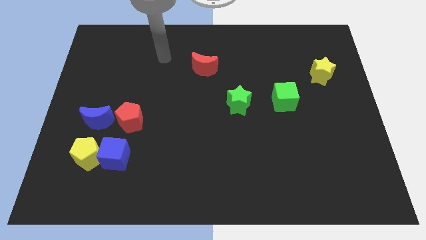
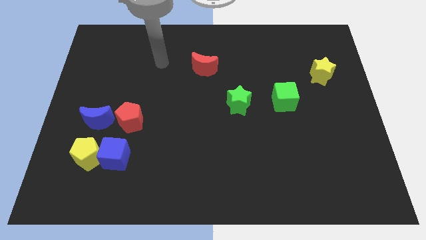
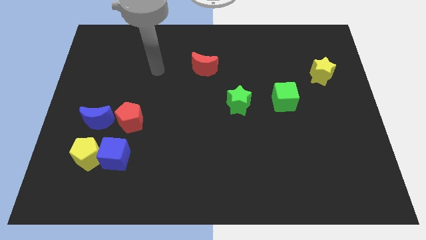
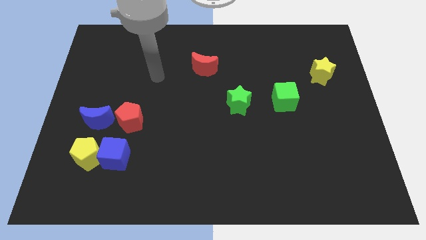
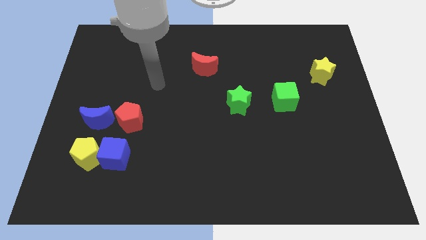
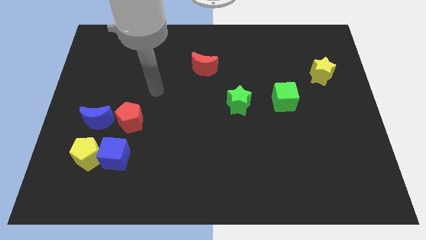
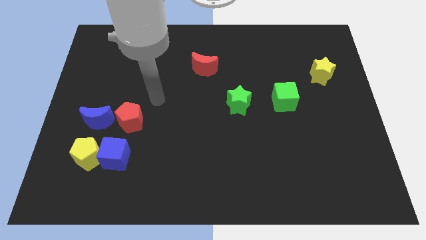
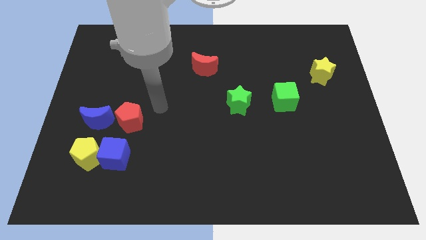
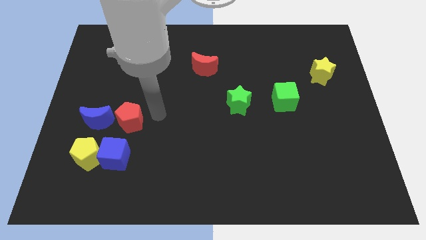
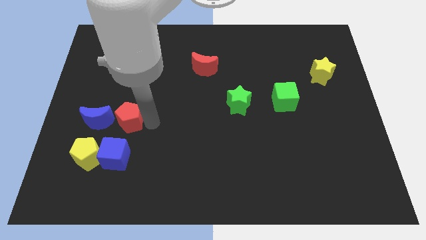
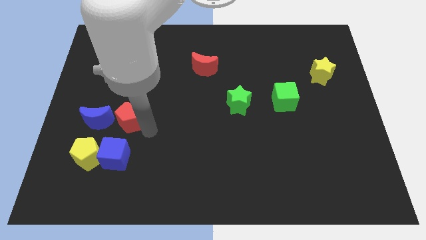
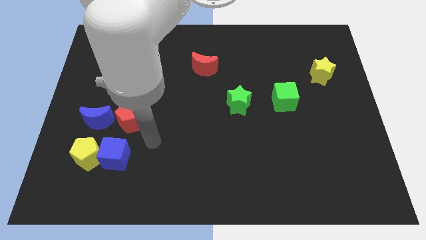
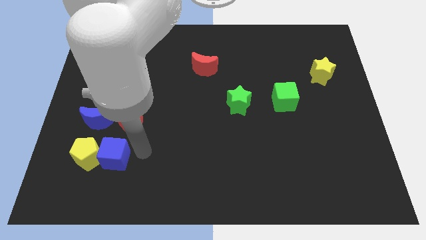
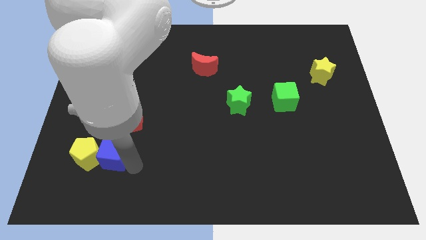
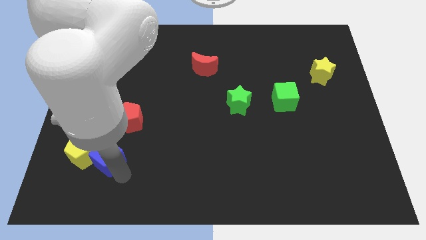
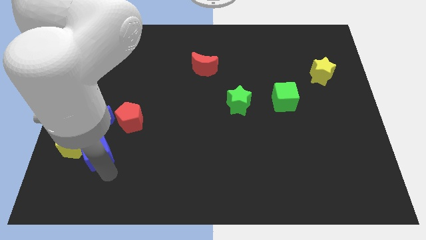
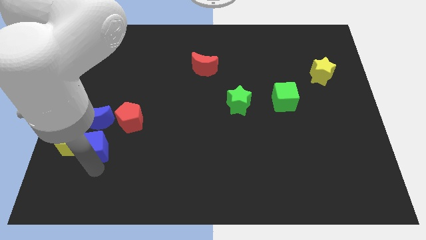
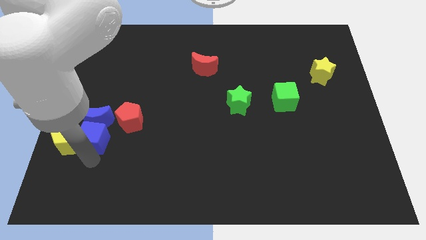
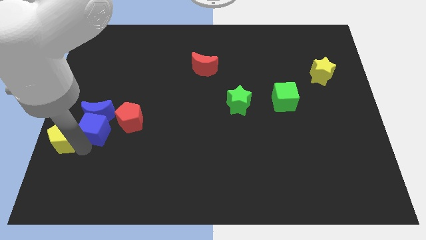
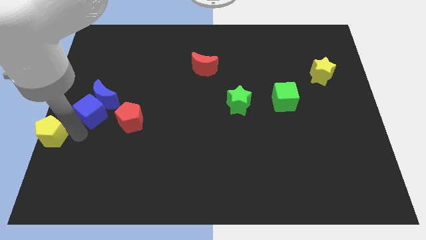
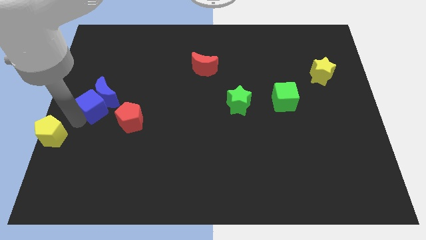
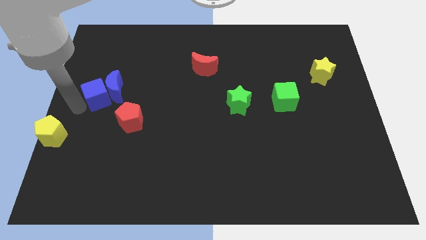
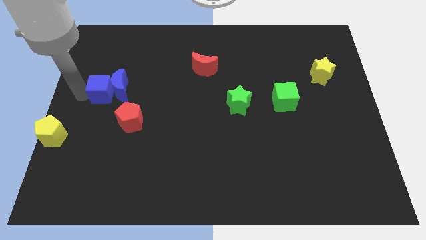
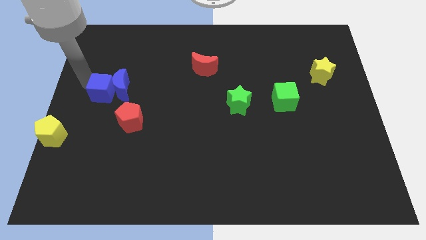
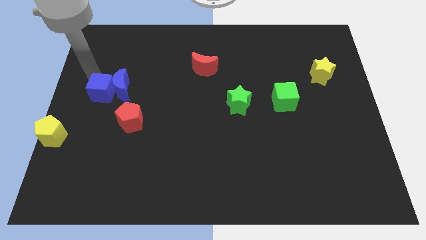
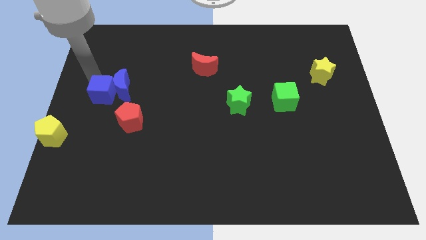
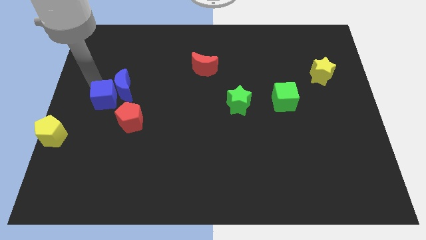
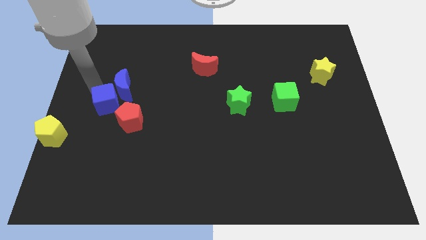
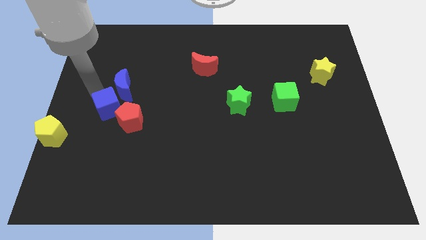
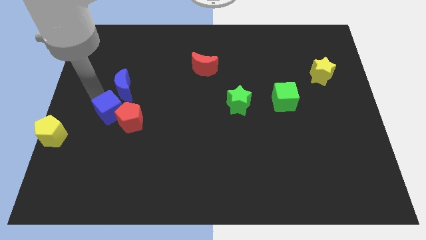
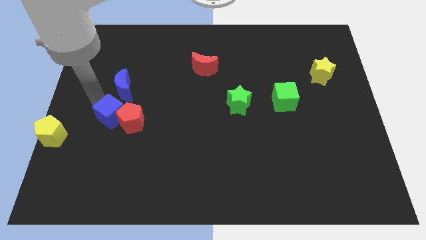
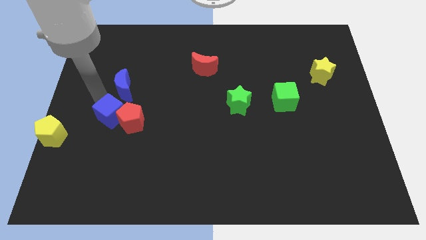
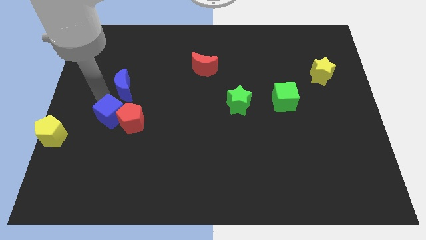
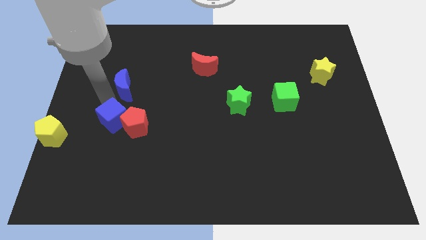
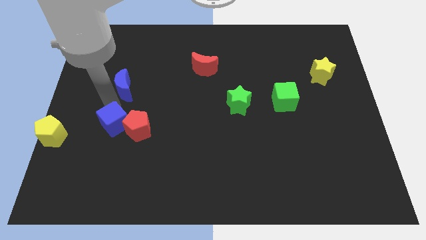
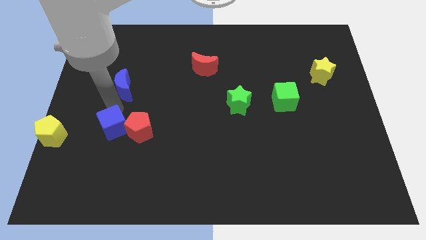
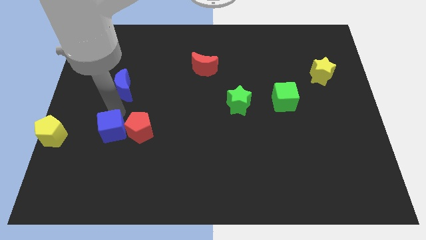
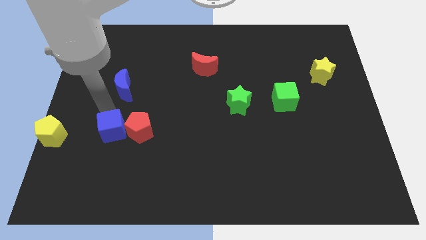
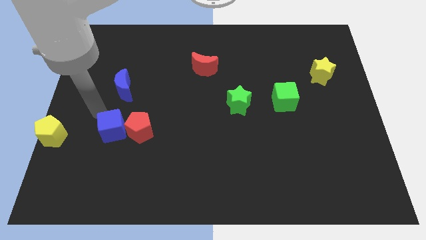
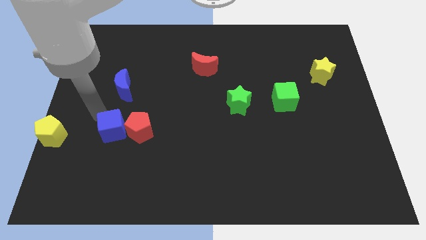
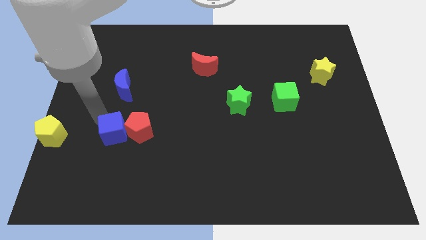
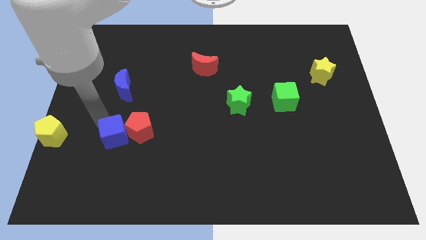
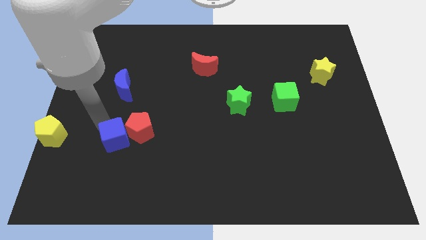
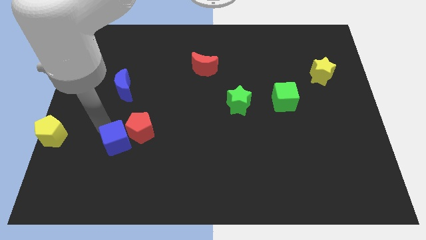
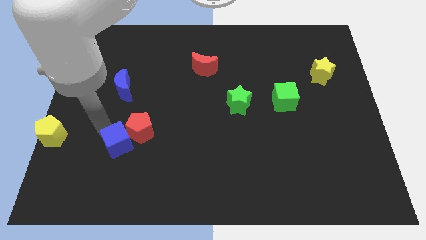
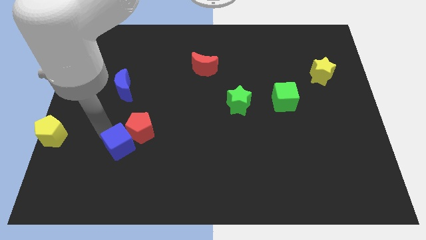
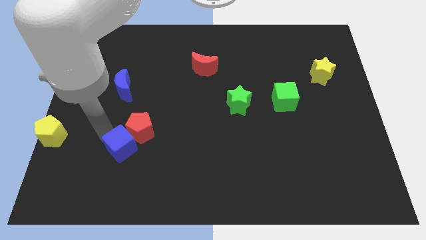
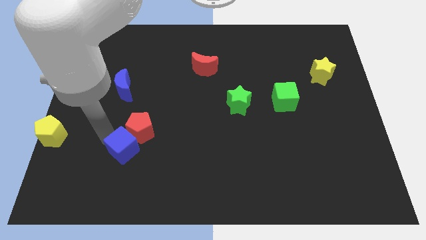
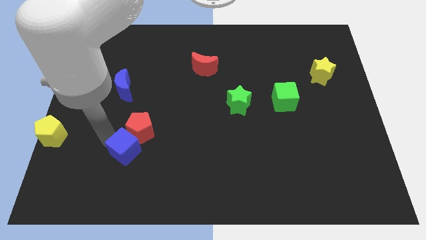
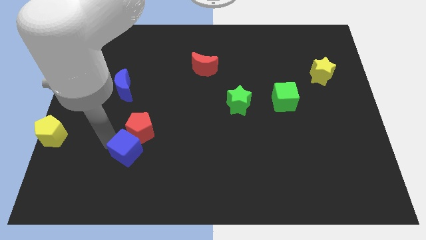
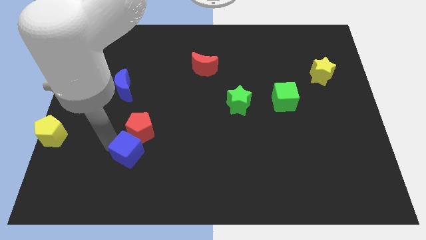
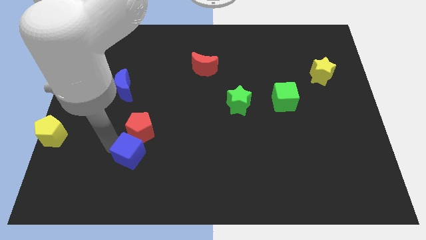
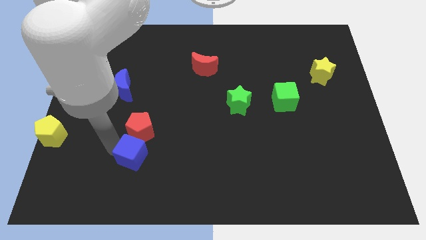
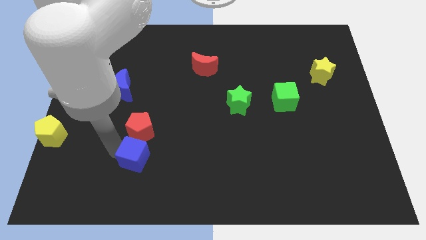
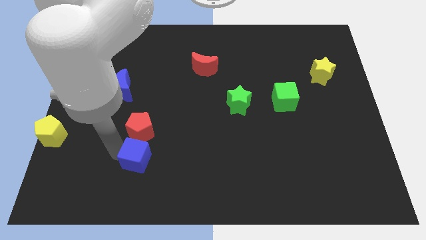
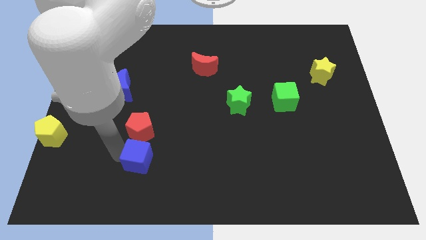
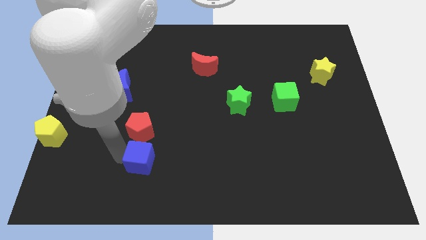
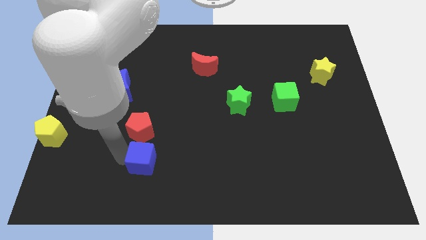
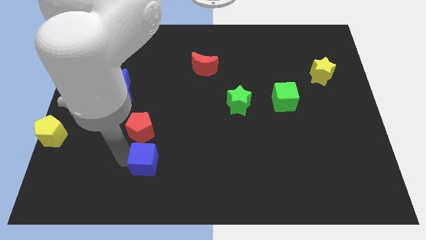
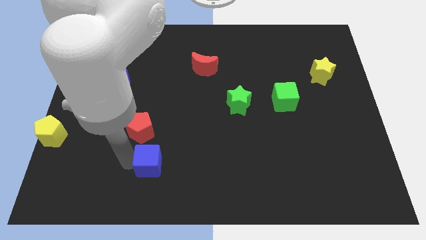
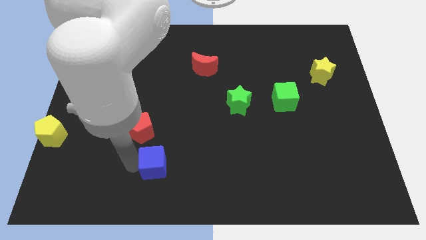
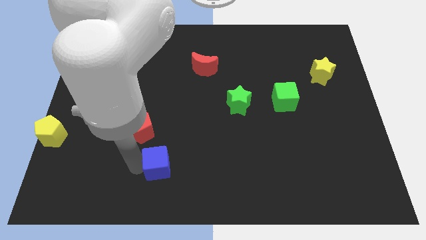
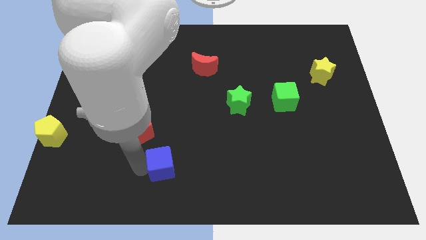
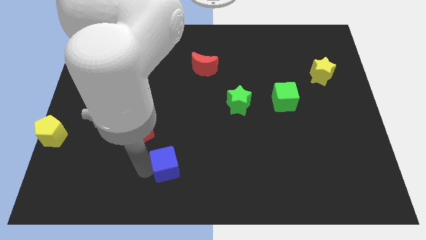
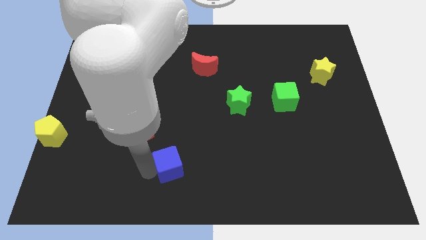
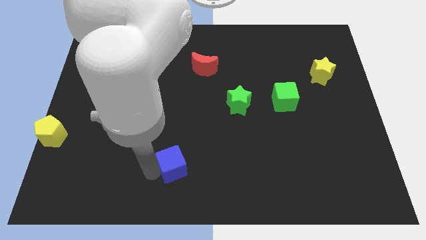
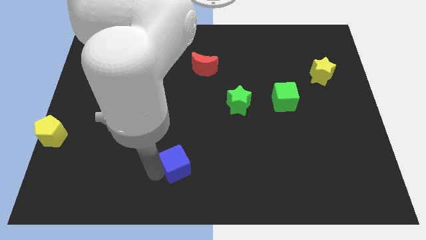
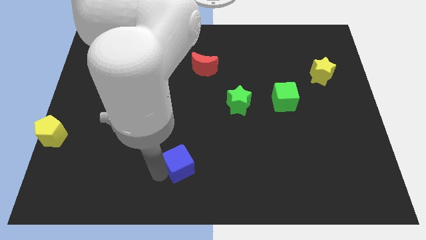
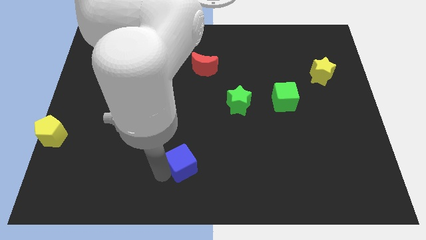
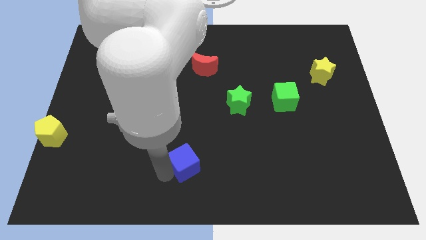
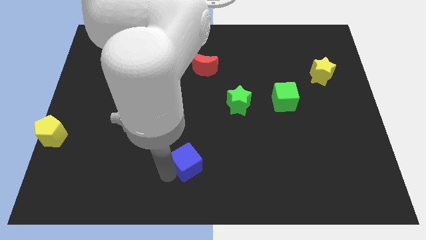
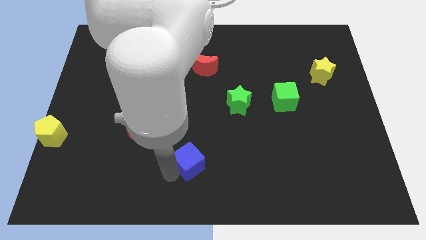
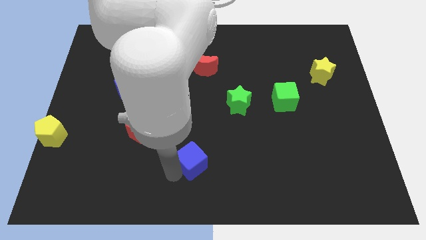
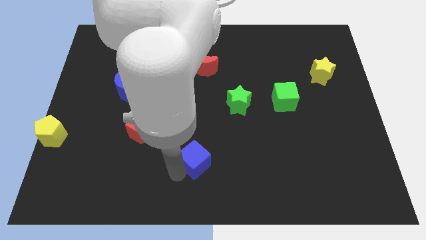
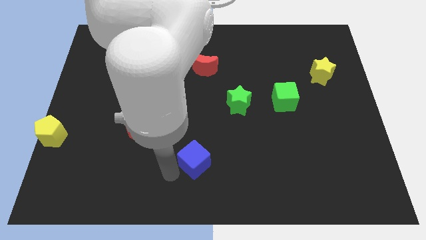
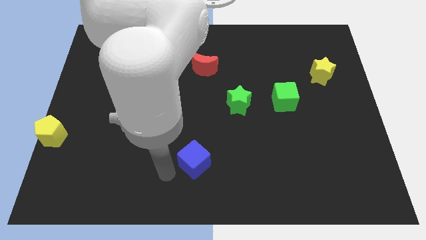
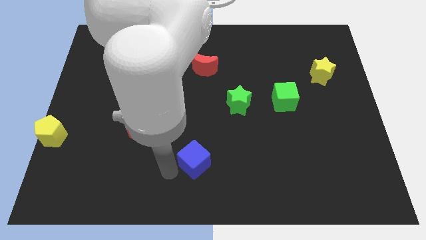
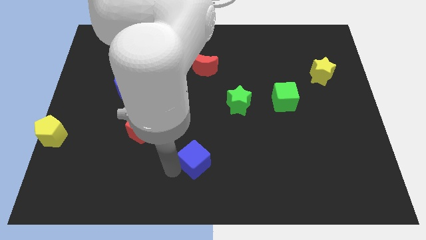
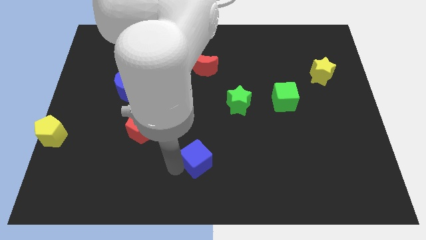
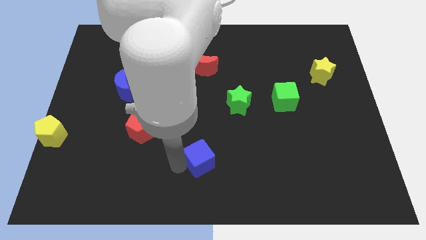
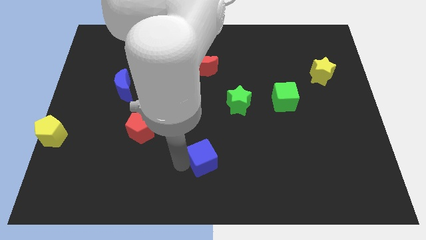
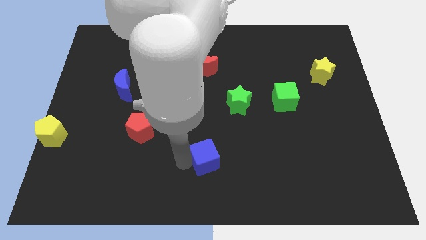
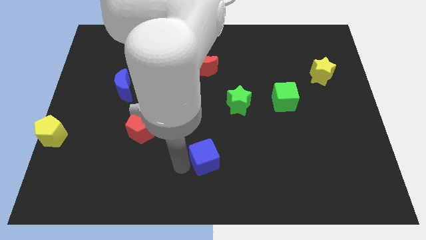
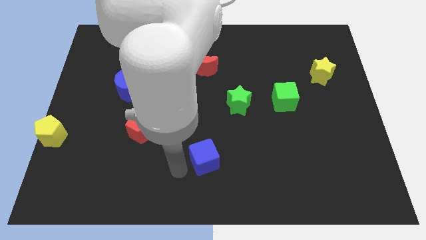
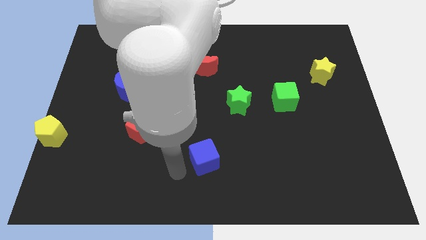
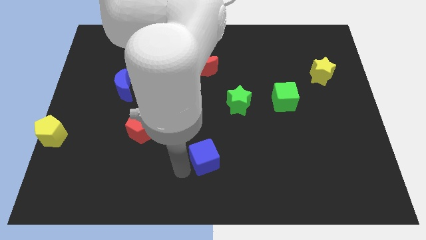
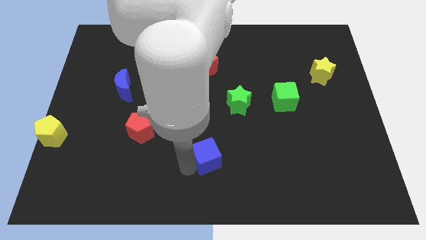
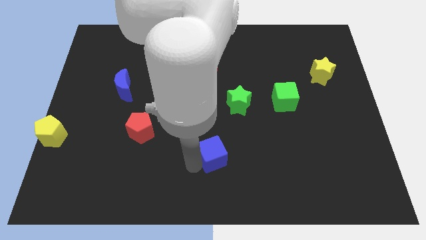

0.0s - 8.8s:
move the blue cube to the right
